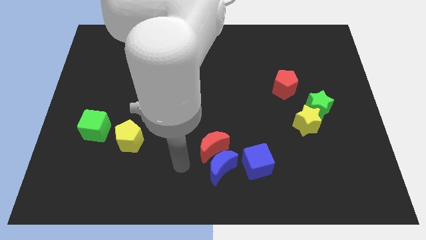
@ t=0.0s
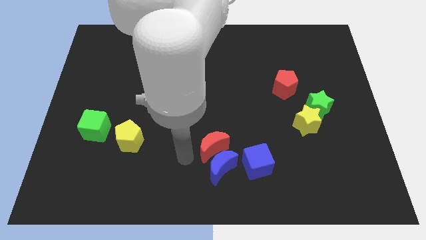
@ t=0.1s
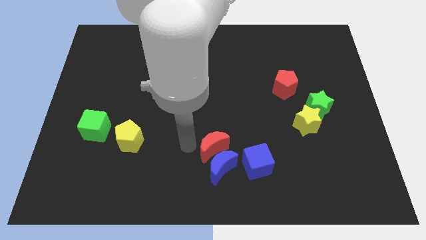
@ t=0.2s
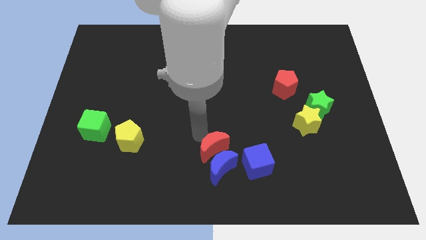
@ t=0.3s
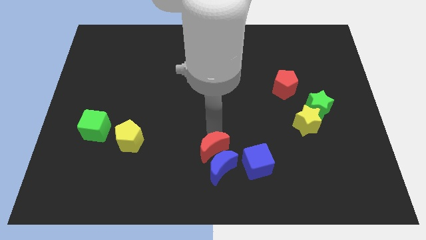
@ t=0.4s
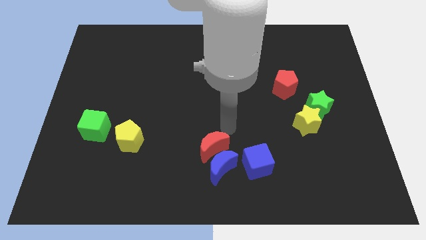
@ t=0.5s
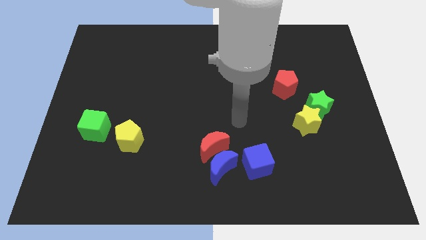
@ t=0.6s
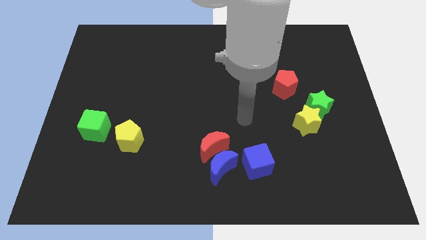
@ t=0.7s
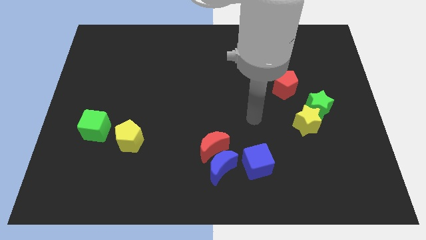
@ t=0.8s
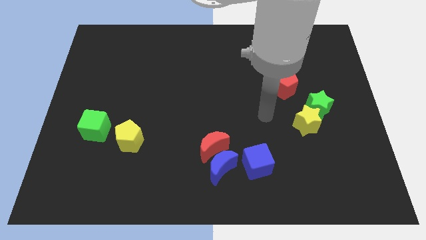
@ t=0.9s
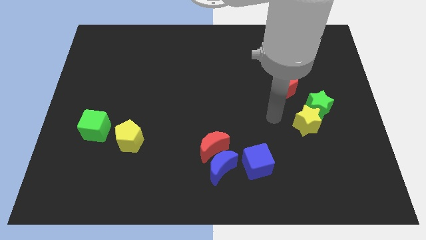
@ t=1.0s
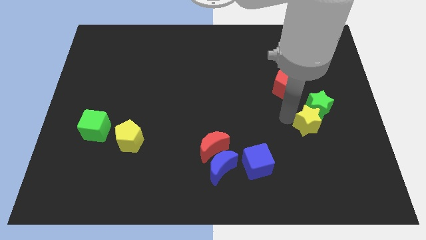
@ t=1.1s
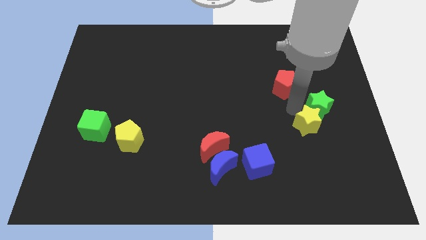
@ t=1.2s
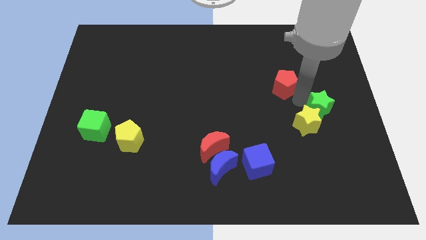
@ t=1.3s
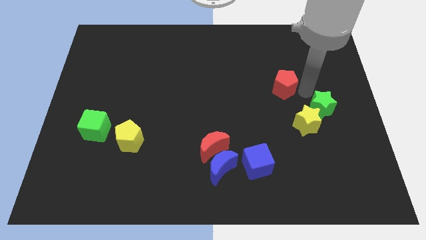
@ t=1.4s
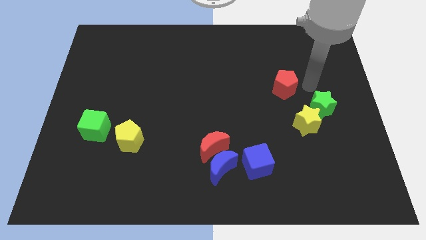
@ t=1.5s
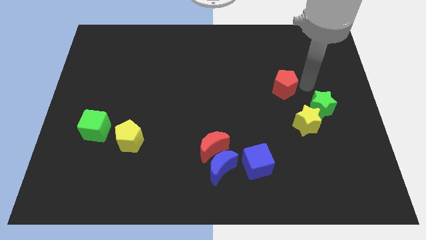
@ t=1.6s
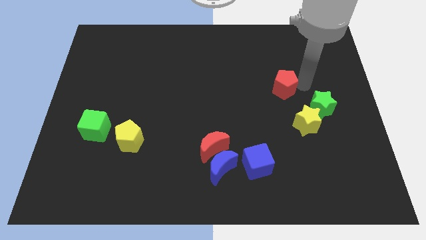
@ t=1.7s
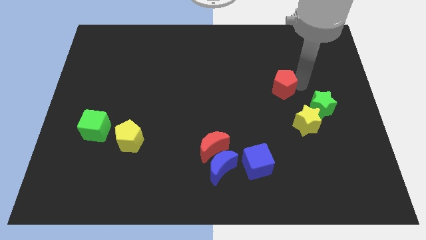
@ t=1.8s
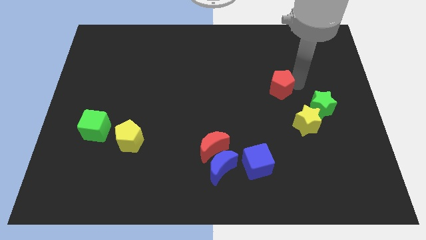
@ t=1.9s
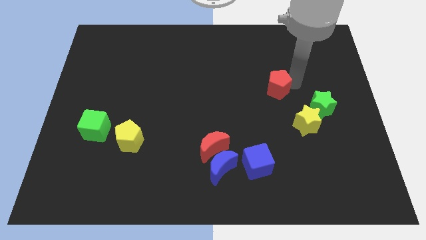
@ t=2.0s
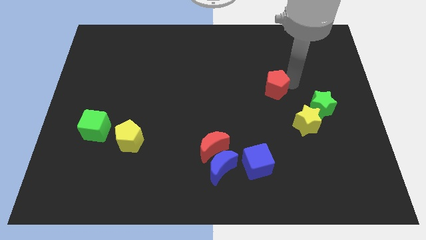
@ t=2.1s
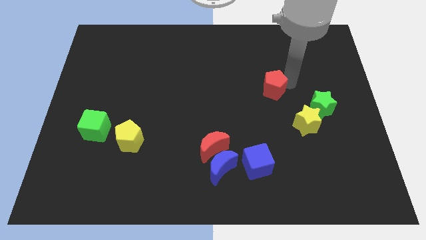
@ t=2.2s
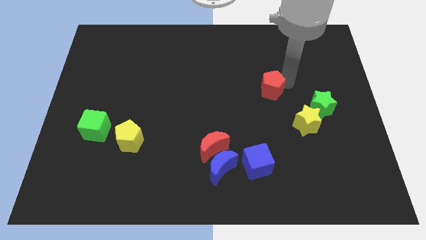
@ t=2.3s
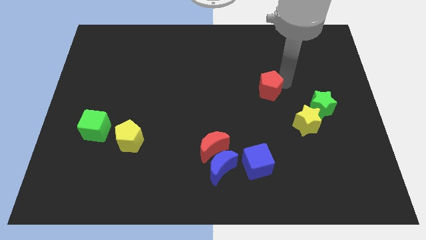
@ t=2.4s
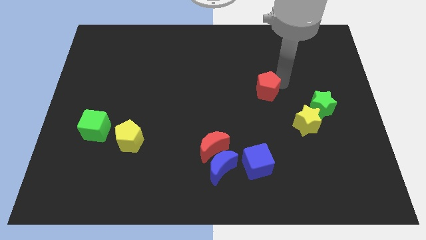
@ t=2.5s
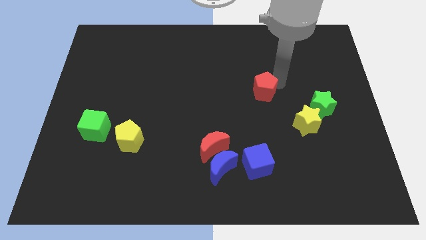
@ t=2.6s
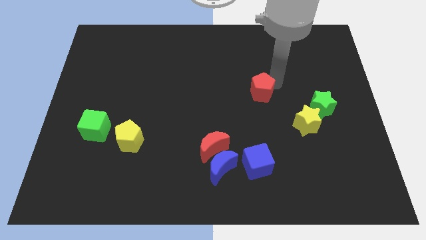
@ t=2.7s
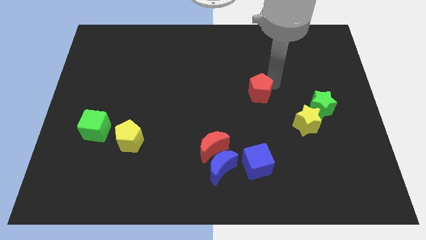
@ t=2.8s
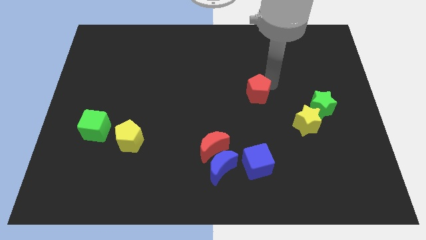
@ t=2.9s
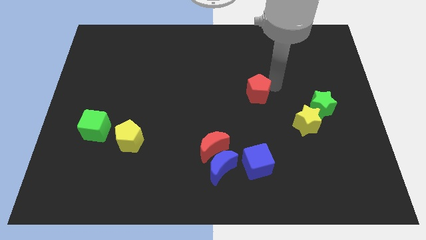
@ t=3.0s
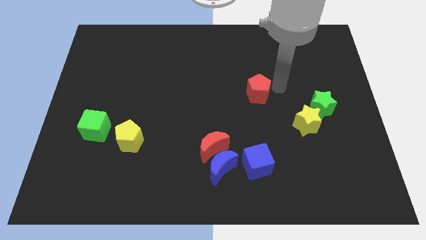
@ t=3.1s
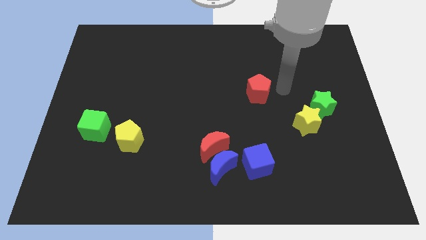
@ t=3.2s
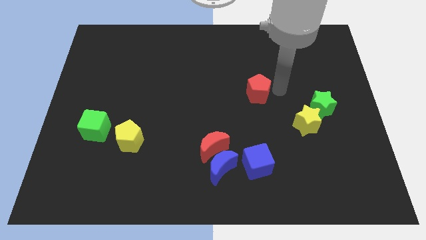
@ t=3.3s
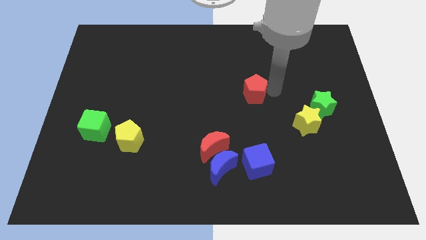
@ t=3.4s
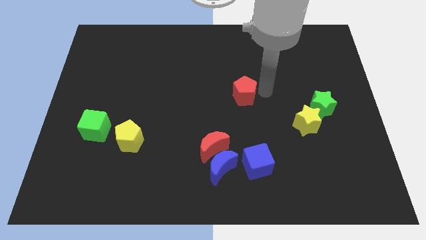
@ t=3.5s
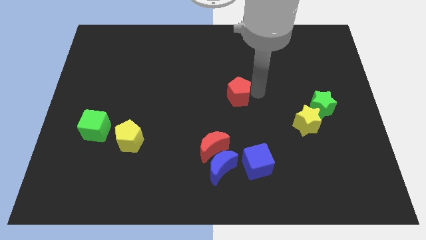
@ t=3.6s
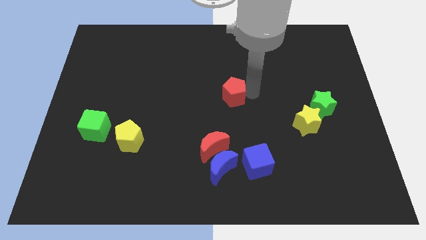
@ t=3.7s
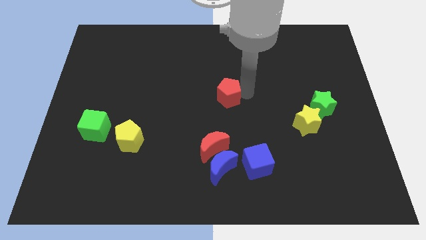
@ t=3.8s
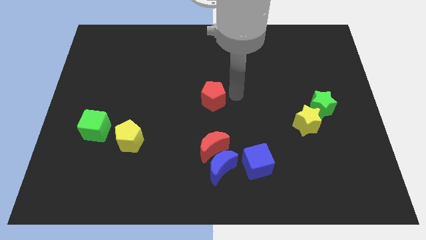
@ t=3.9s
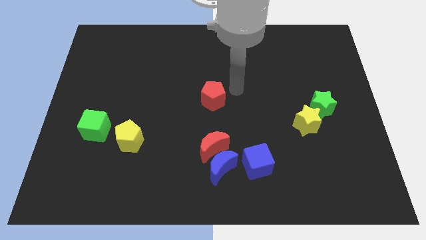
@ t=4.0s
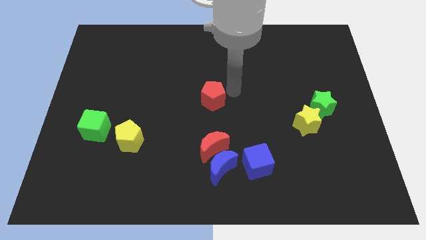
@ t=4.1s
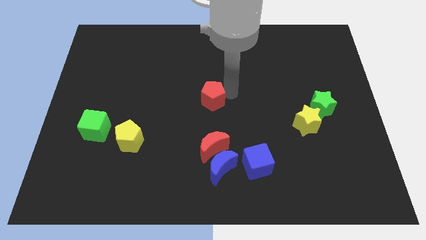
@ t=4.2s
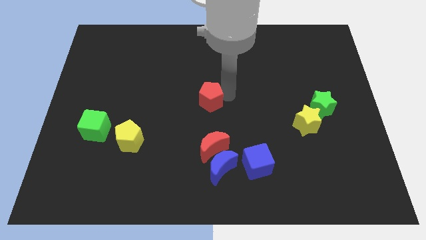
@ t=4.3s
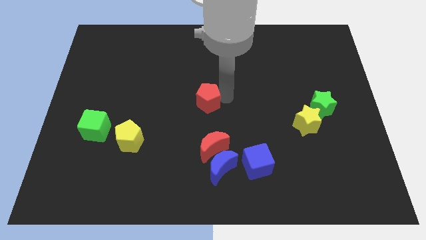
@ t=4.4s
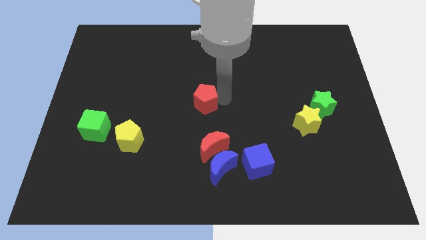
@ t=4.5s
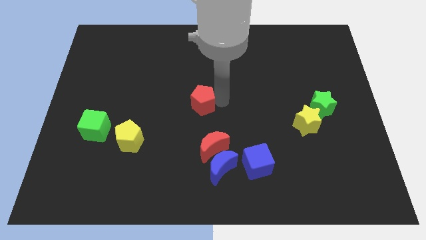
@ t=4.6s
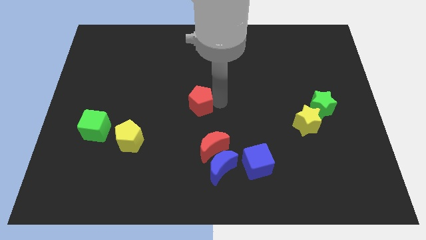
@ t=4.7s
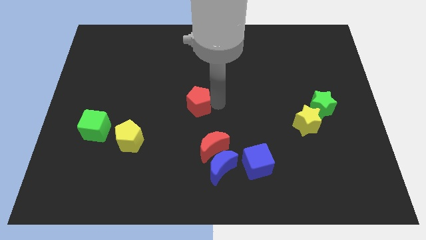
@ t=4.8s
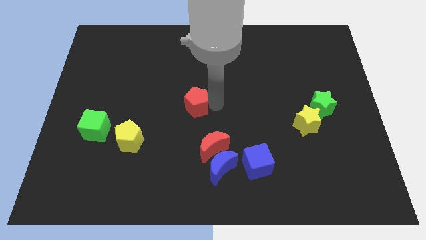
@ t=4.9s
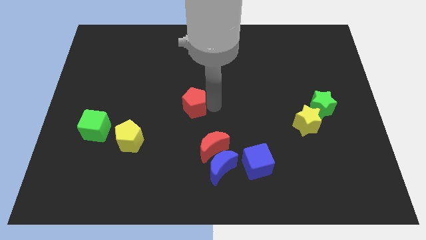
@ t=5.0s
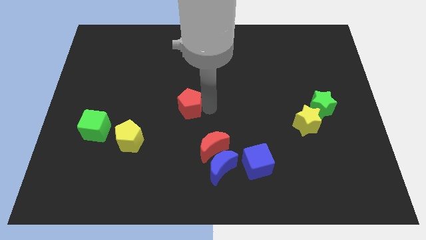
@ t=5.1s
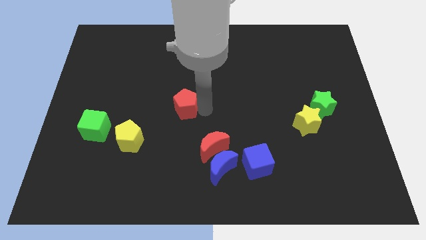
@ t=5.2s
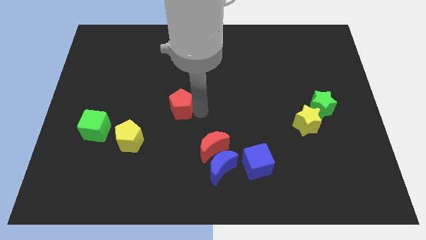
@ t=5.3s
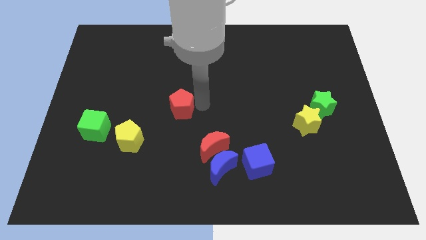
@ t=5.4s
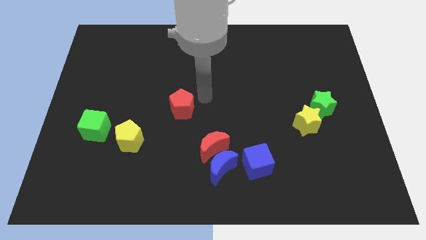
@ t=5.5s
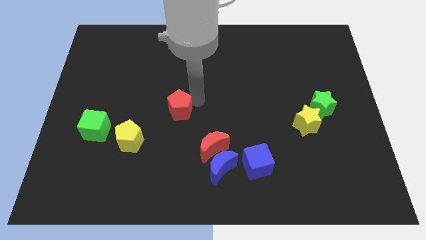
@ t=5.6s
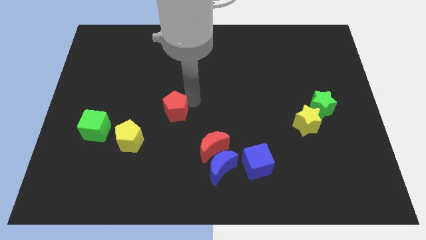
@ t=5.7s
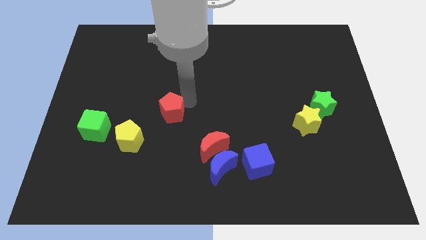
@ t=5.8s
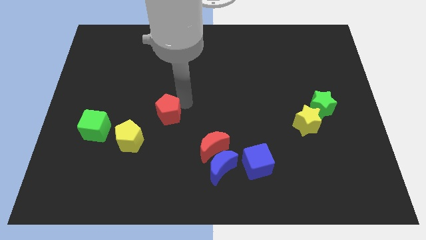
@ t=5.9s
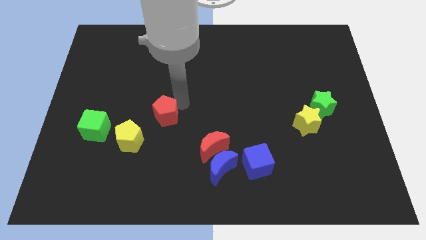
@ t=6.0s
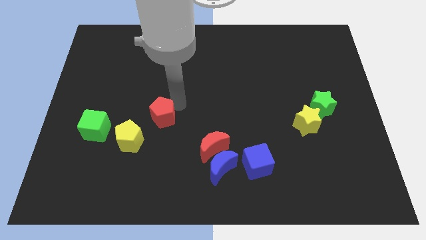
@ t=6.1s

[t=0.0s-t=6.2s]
put the red pentagon just right of the green cube
